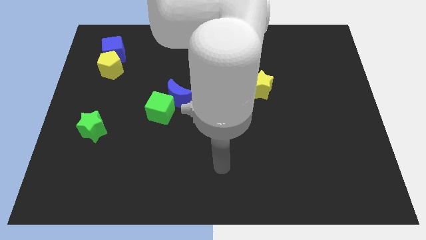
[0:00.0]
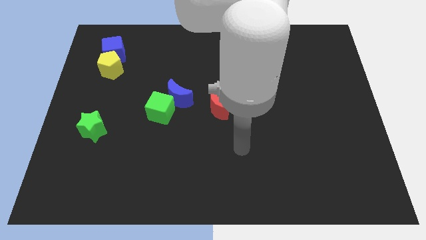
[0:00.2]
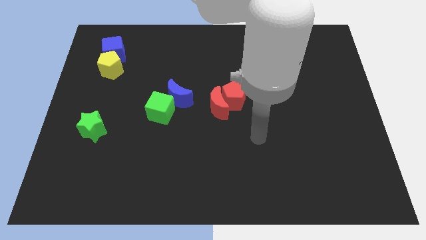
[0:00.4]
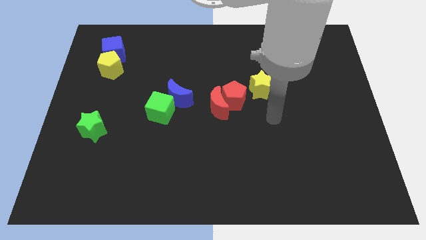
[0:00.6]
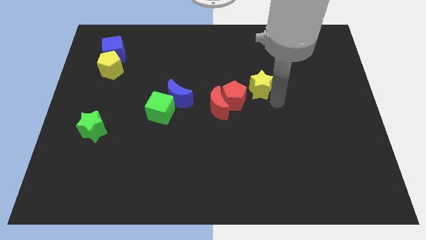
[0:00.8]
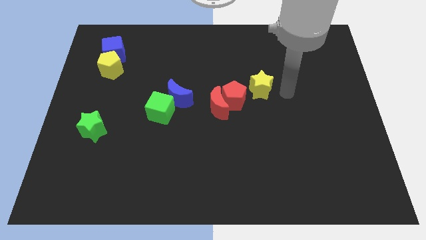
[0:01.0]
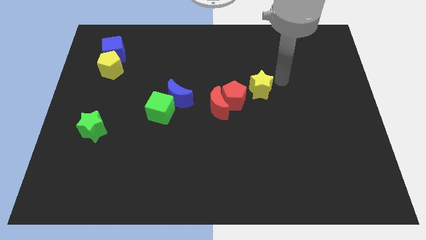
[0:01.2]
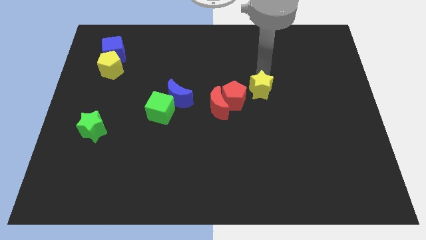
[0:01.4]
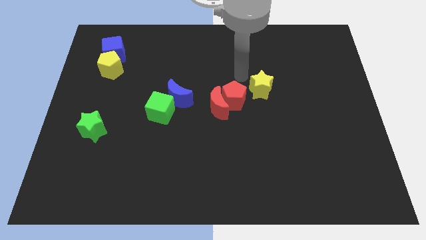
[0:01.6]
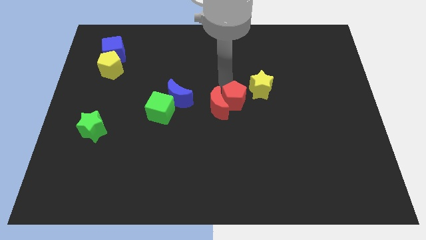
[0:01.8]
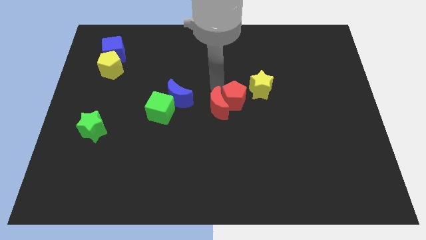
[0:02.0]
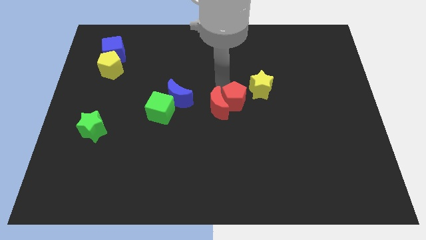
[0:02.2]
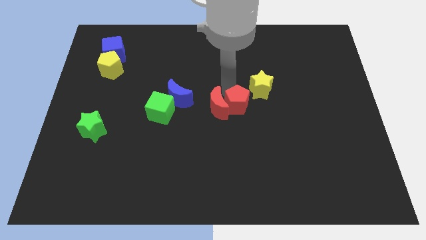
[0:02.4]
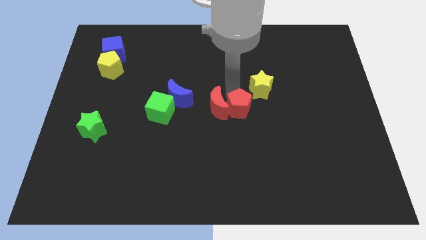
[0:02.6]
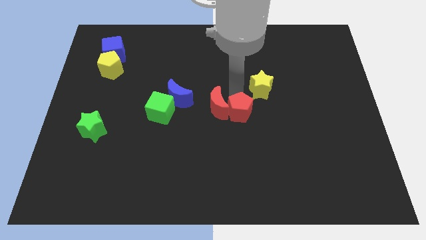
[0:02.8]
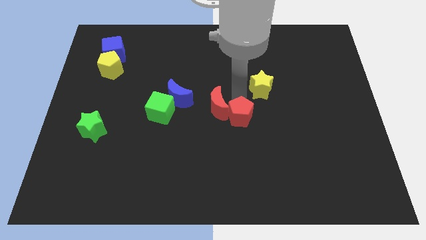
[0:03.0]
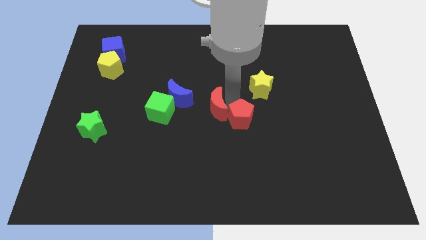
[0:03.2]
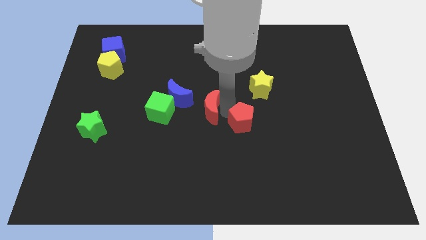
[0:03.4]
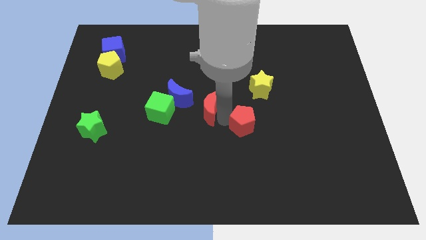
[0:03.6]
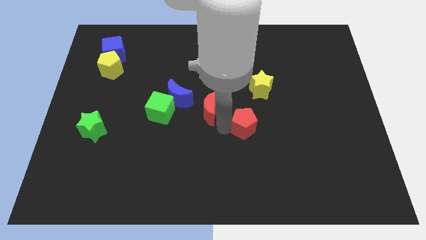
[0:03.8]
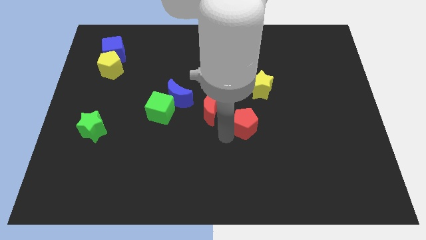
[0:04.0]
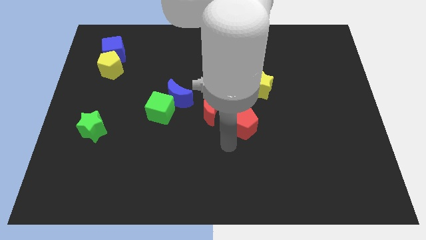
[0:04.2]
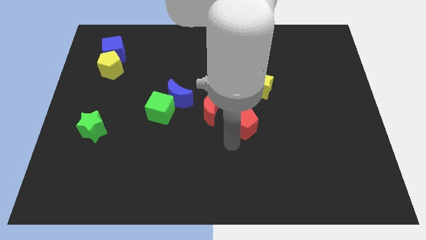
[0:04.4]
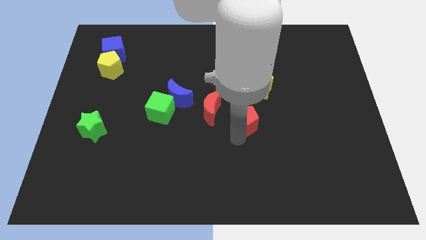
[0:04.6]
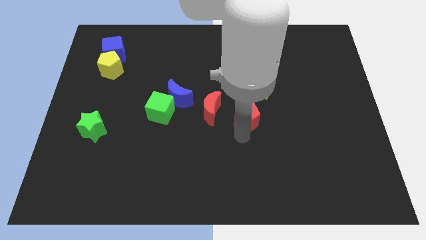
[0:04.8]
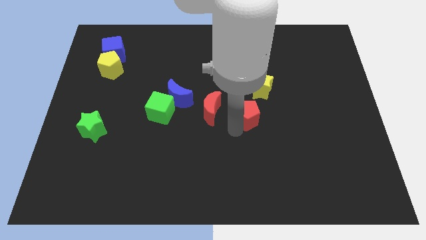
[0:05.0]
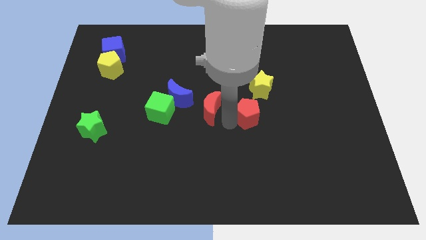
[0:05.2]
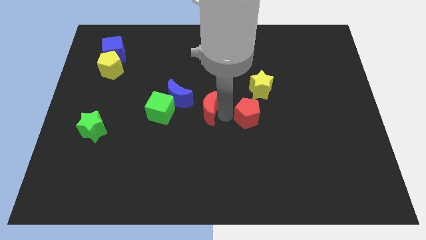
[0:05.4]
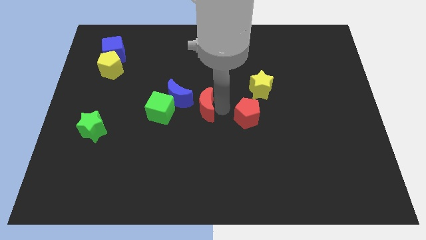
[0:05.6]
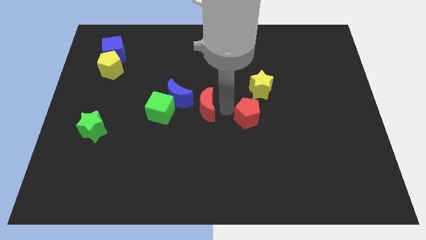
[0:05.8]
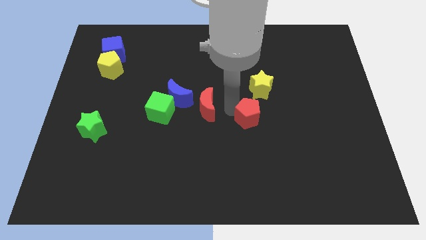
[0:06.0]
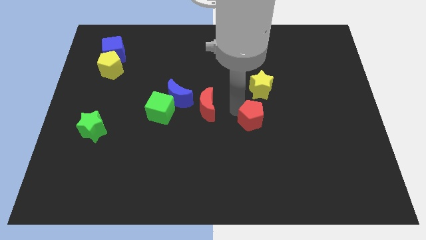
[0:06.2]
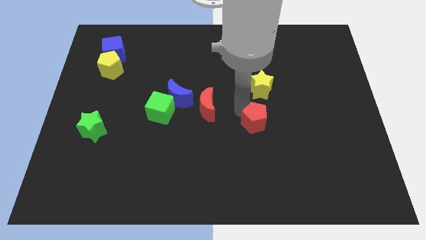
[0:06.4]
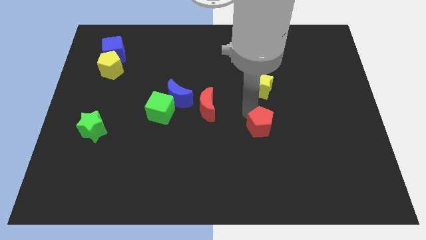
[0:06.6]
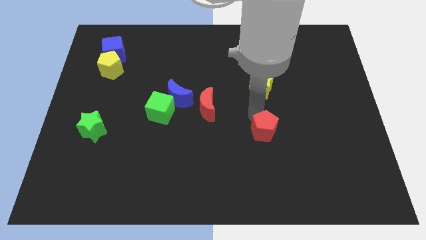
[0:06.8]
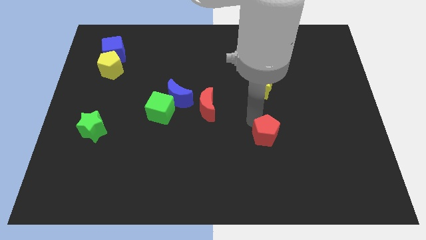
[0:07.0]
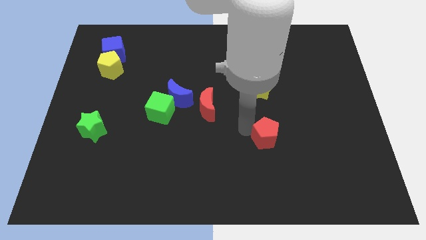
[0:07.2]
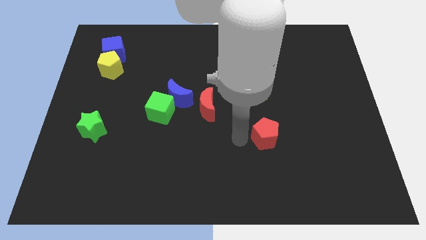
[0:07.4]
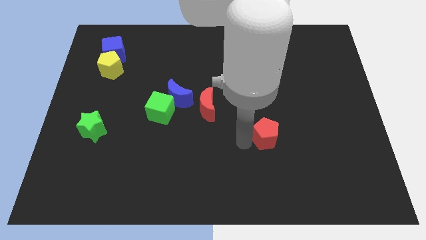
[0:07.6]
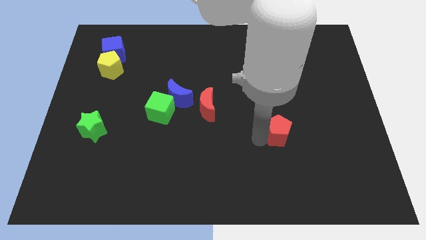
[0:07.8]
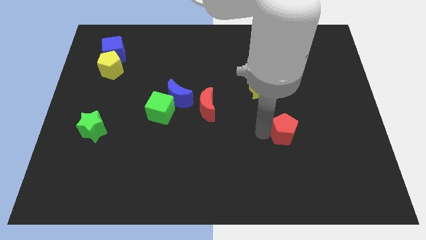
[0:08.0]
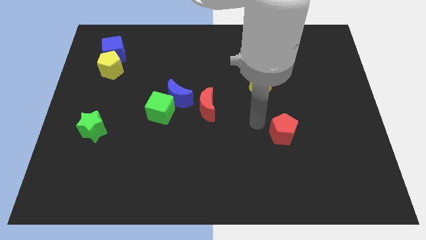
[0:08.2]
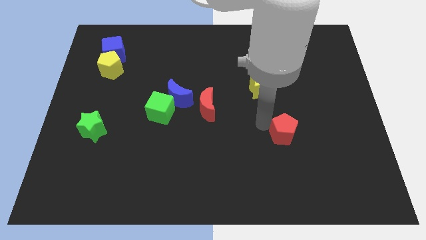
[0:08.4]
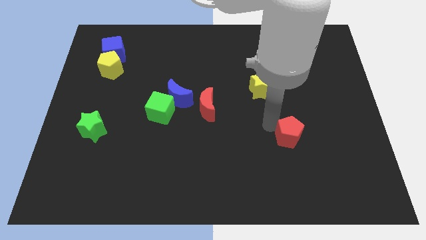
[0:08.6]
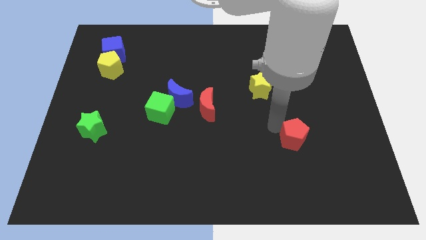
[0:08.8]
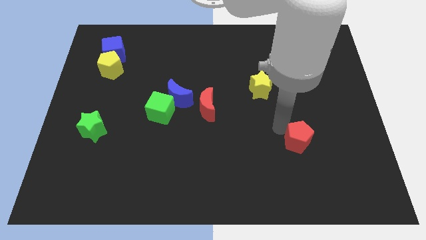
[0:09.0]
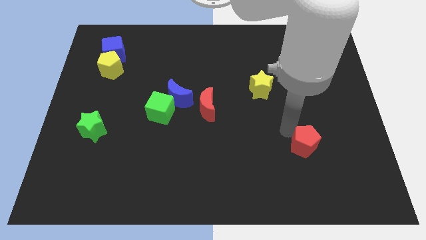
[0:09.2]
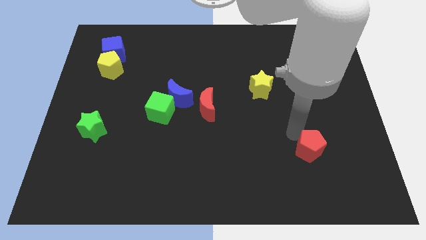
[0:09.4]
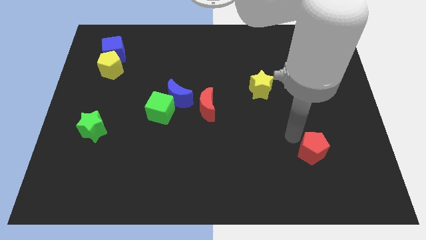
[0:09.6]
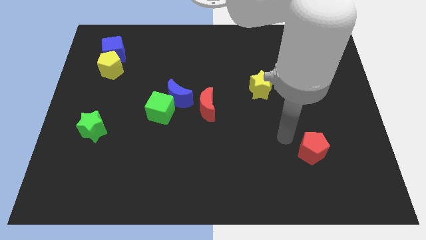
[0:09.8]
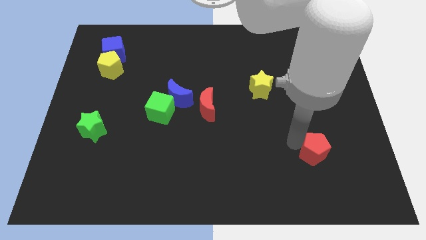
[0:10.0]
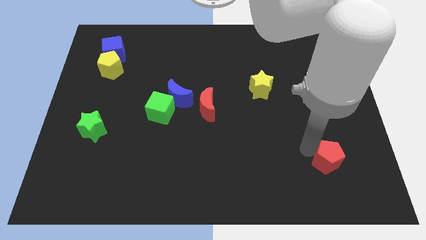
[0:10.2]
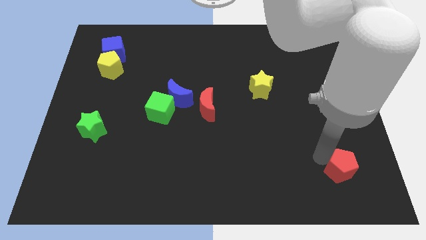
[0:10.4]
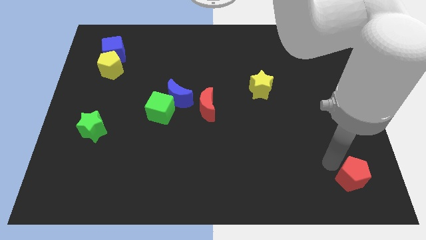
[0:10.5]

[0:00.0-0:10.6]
slide the red pentagon to the bottom right corner

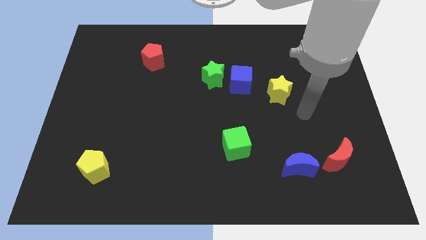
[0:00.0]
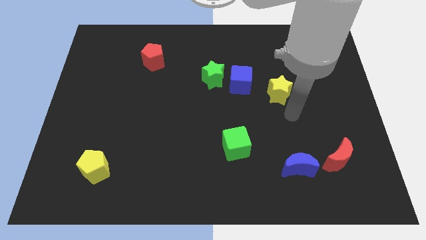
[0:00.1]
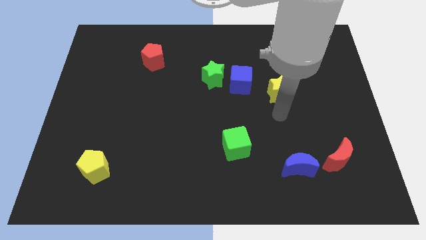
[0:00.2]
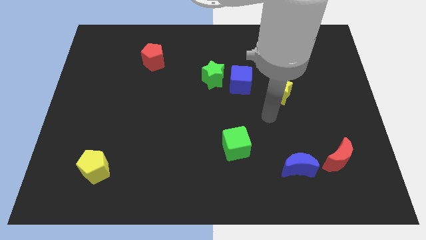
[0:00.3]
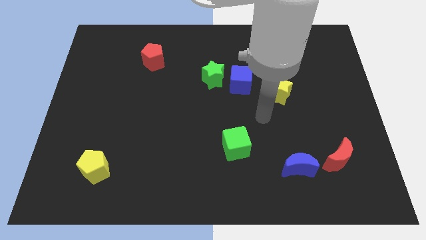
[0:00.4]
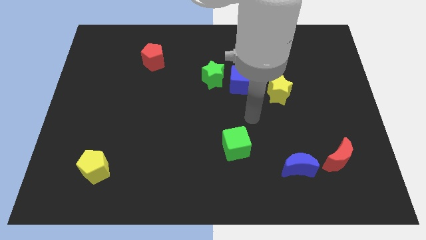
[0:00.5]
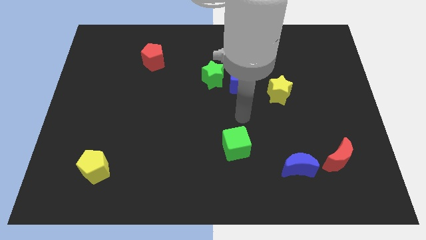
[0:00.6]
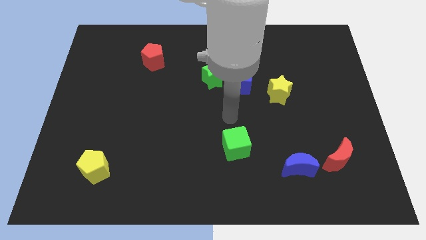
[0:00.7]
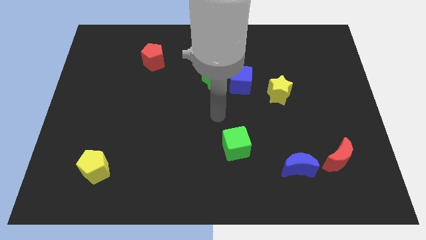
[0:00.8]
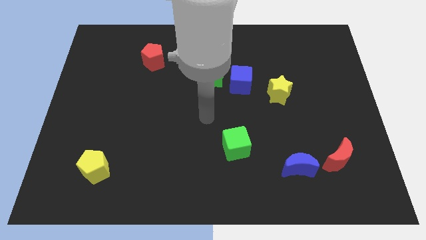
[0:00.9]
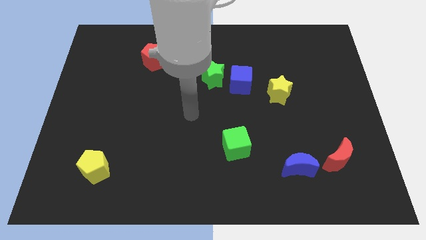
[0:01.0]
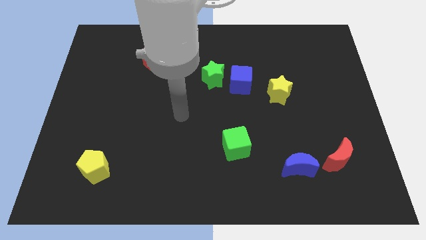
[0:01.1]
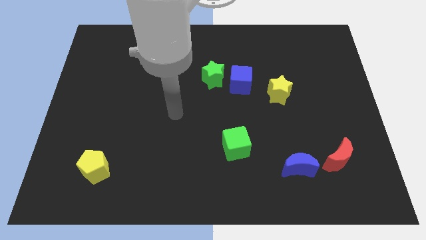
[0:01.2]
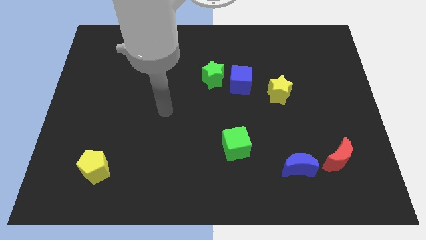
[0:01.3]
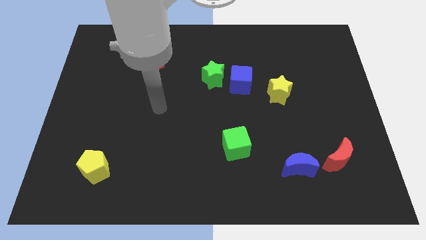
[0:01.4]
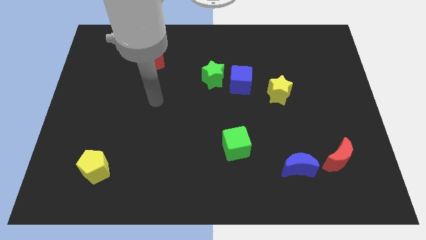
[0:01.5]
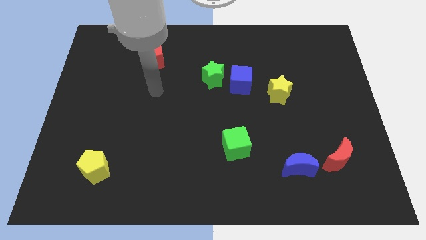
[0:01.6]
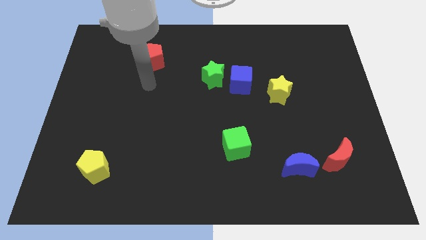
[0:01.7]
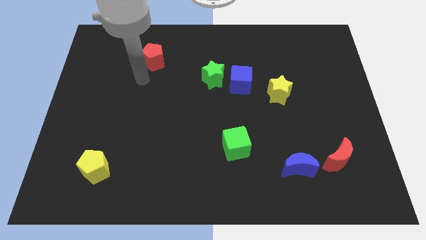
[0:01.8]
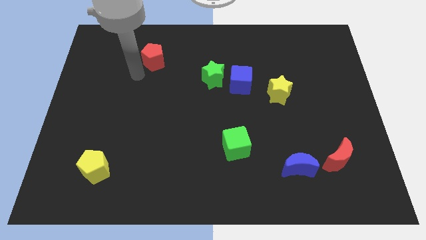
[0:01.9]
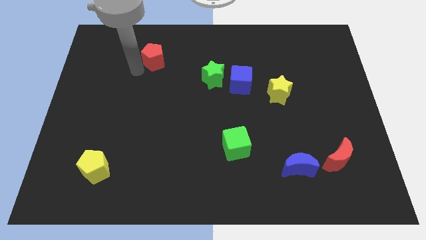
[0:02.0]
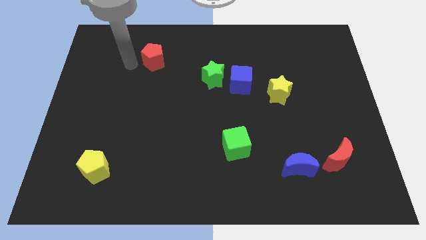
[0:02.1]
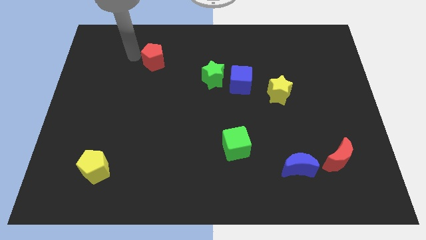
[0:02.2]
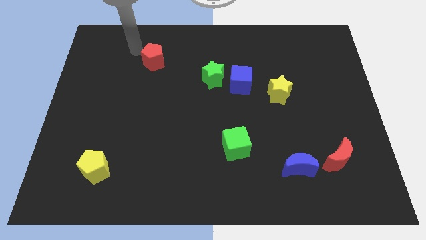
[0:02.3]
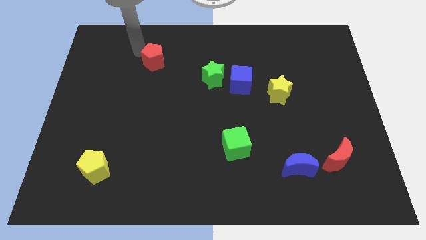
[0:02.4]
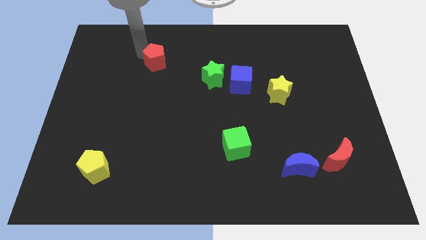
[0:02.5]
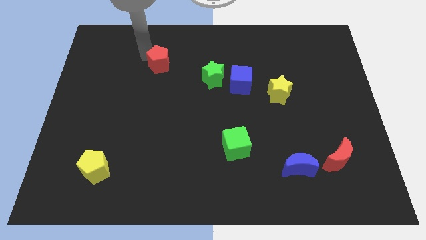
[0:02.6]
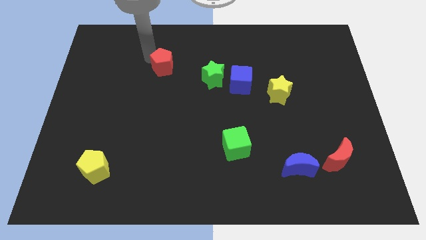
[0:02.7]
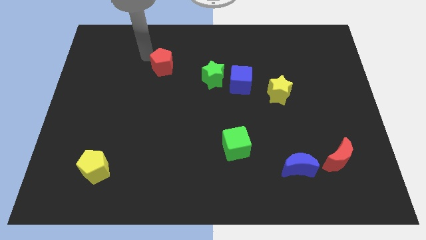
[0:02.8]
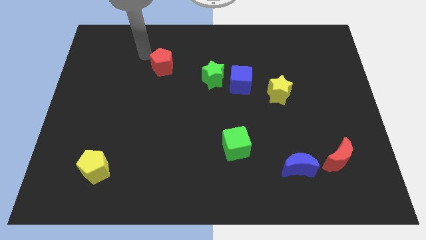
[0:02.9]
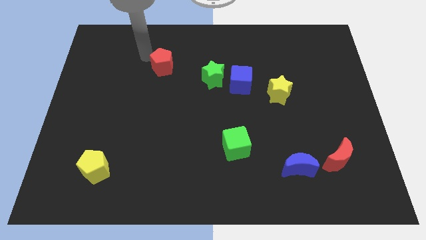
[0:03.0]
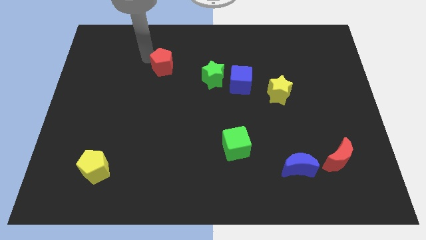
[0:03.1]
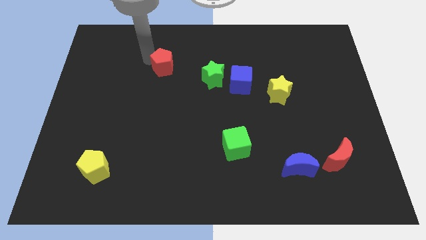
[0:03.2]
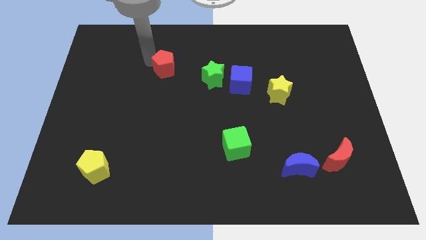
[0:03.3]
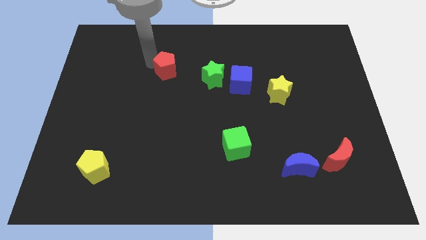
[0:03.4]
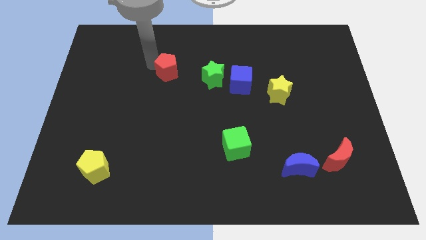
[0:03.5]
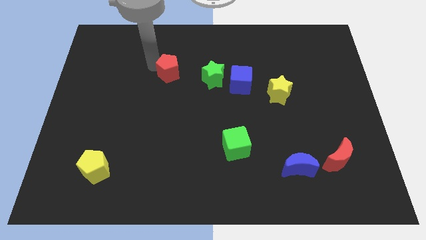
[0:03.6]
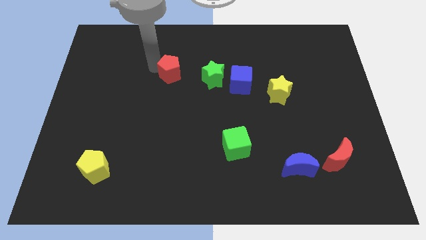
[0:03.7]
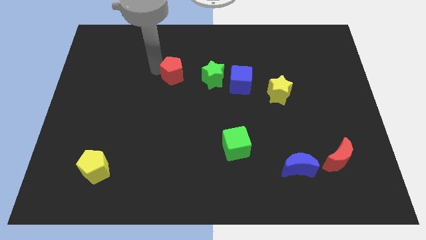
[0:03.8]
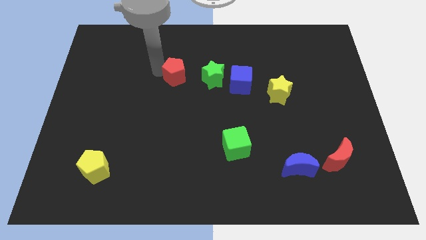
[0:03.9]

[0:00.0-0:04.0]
slide the red pentagon to the middle
